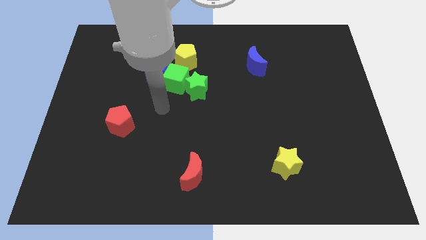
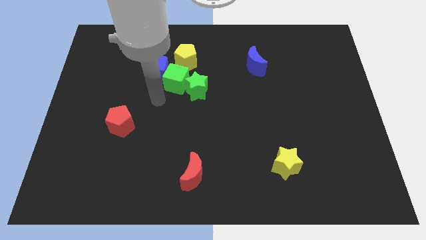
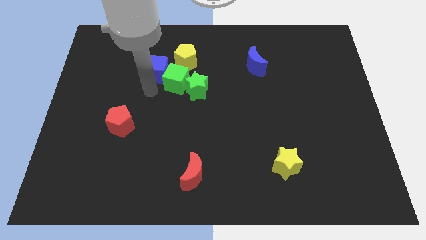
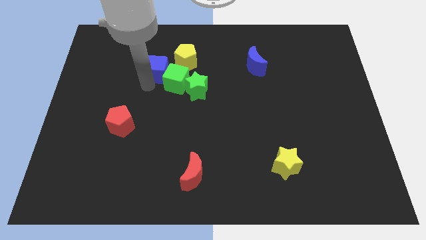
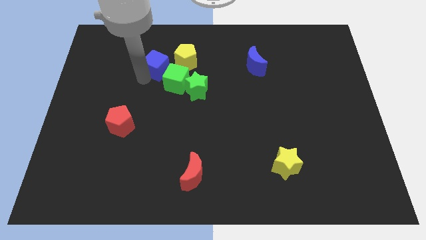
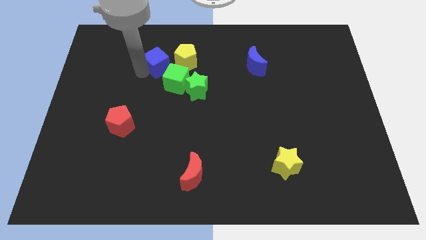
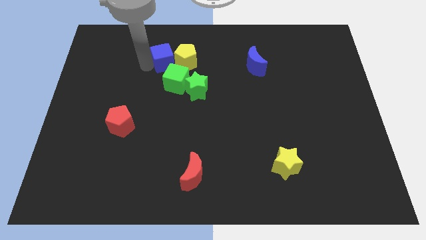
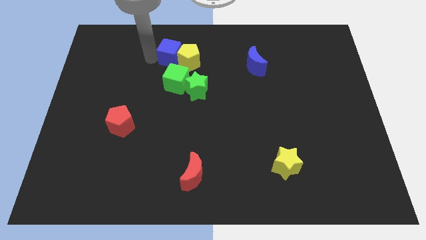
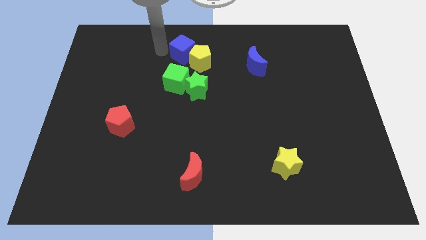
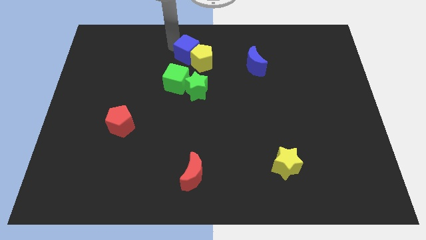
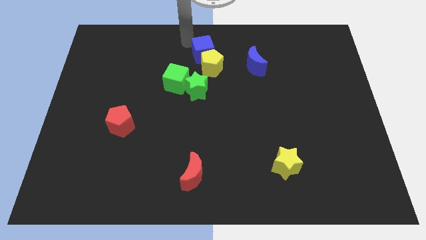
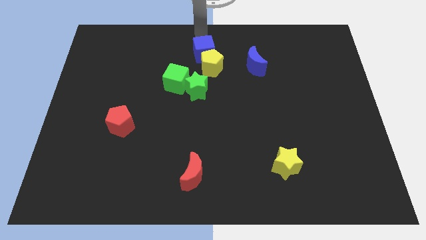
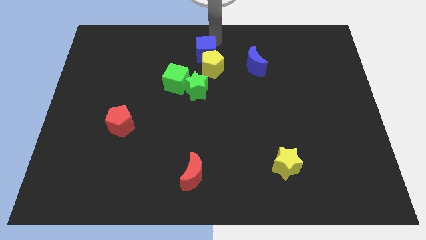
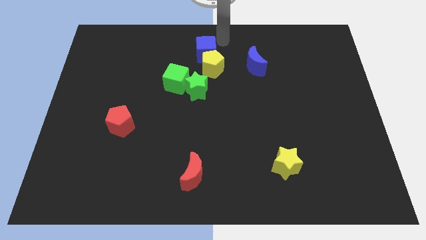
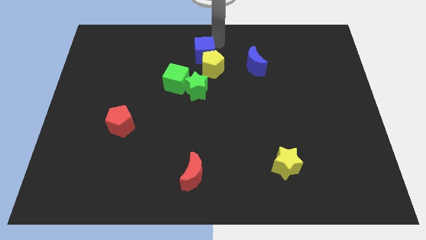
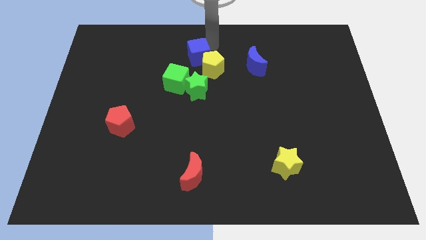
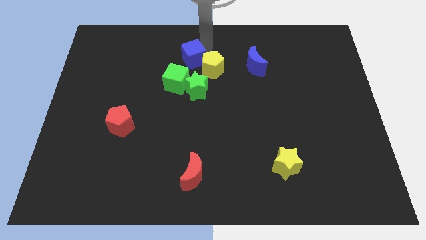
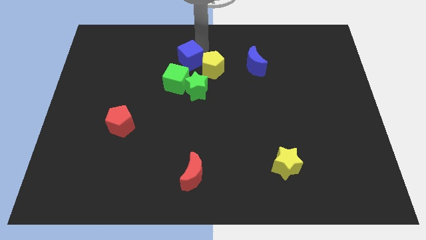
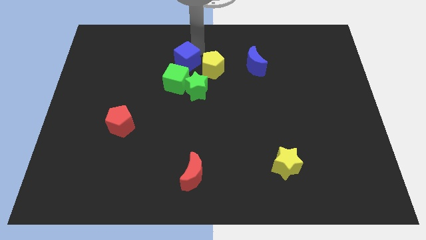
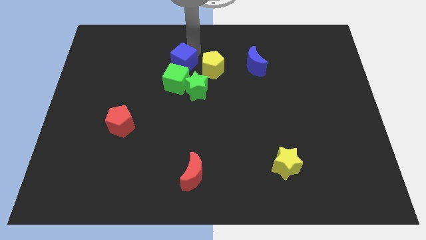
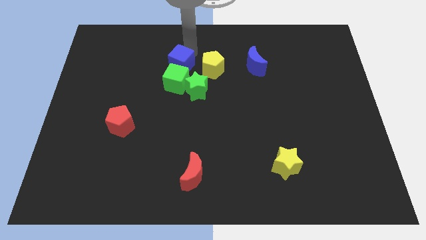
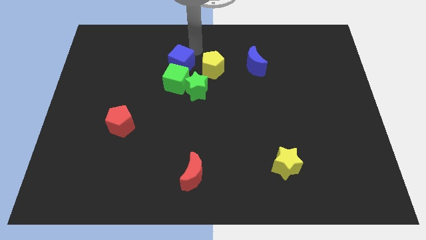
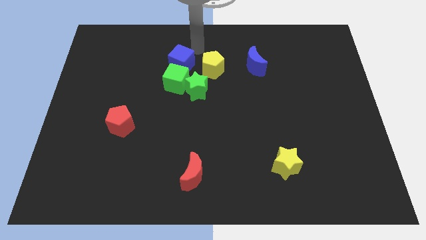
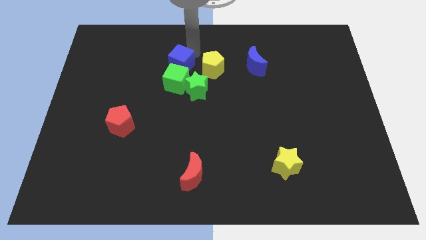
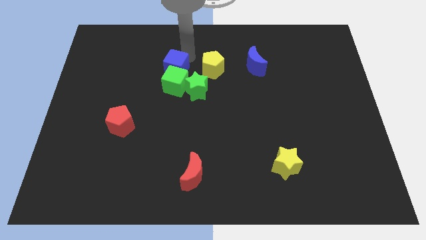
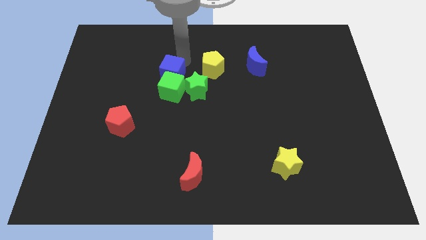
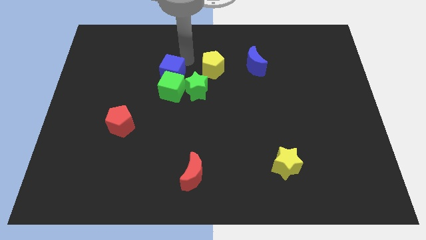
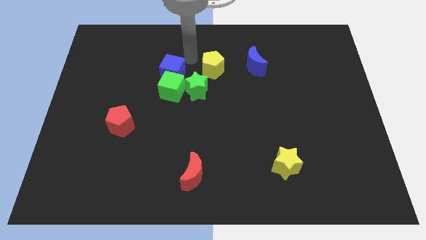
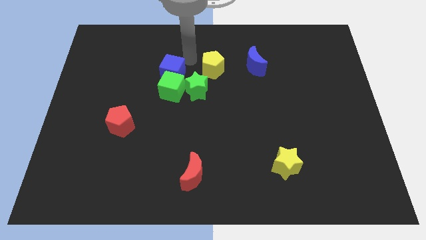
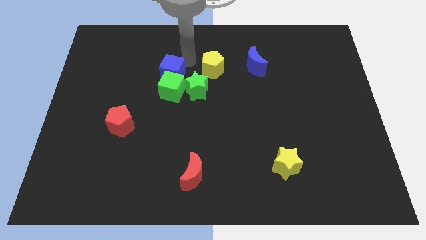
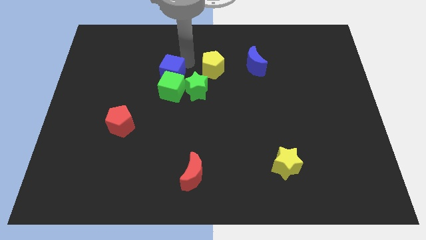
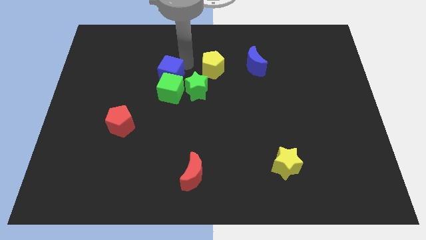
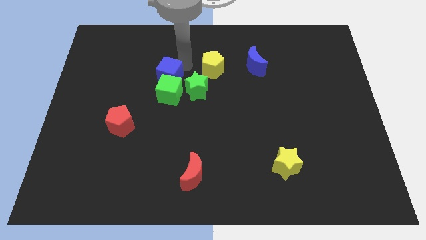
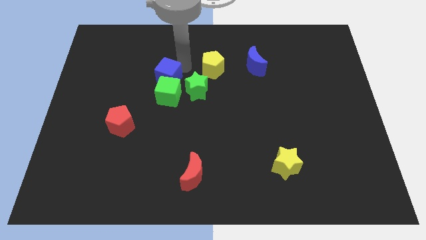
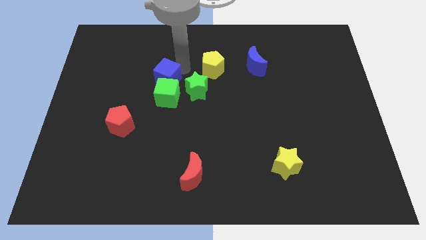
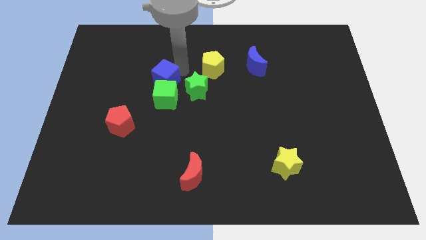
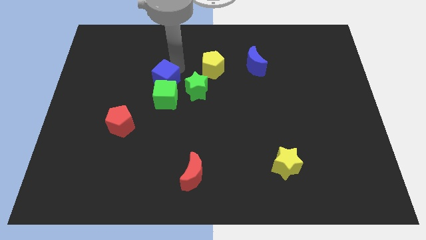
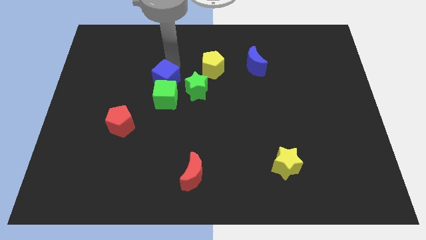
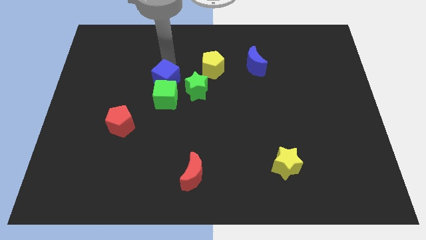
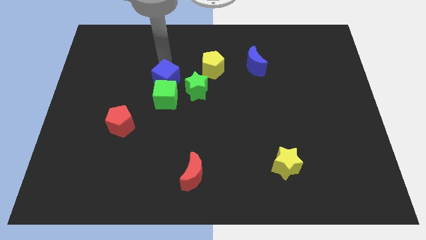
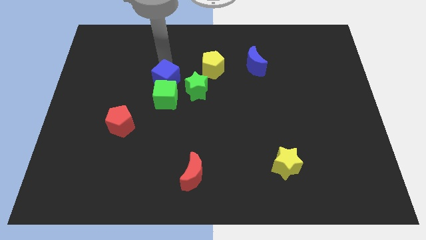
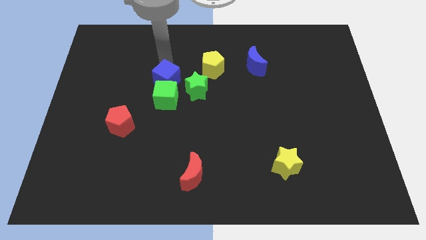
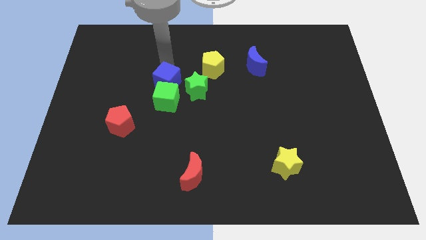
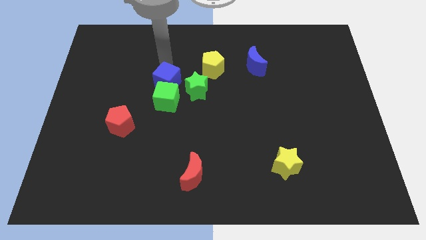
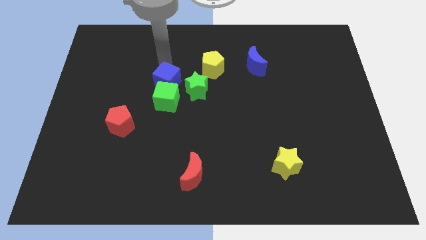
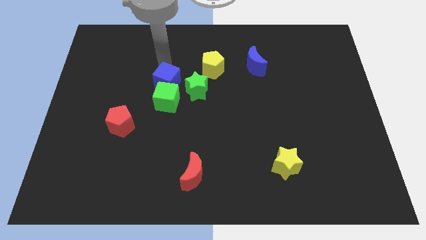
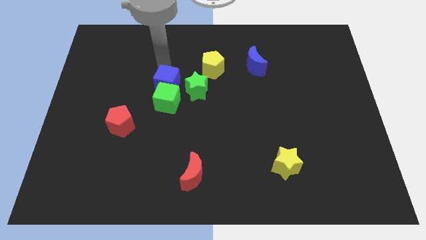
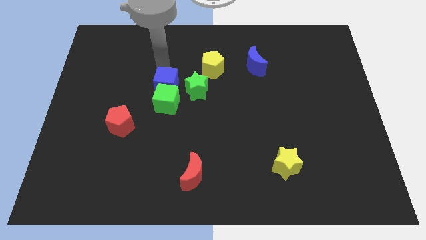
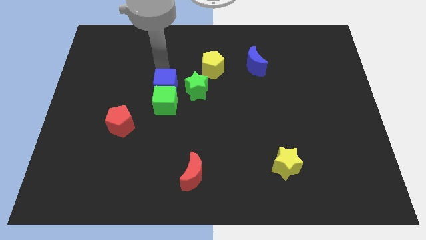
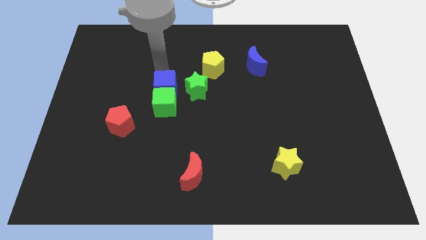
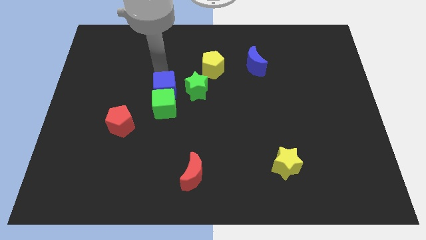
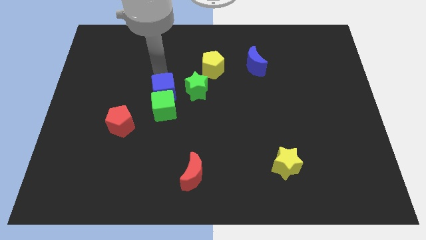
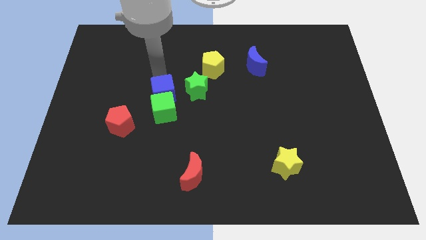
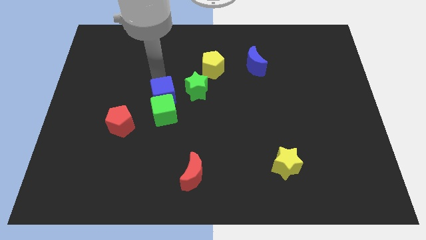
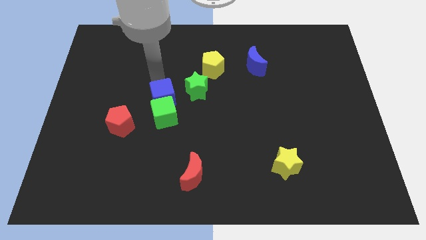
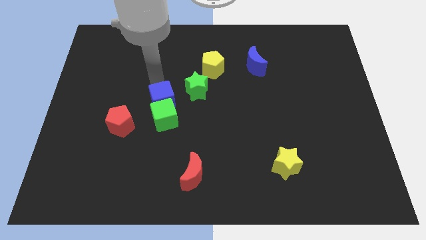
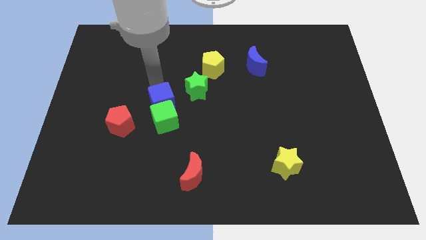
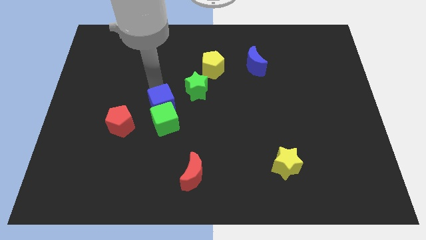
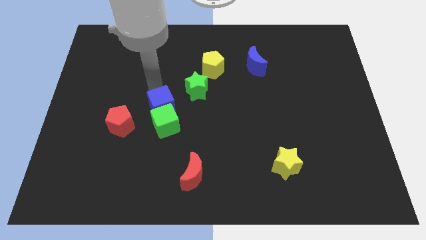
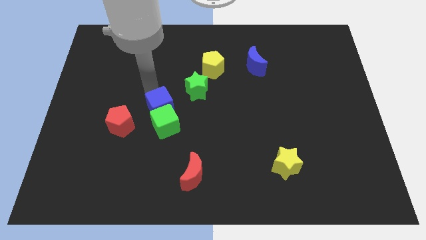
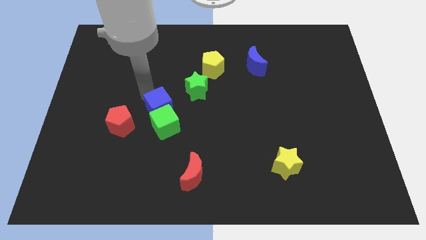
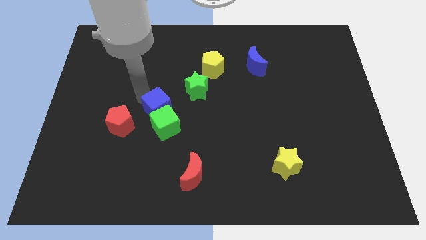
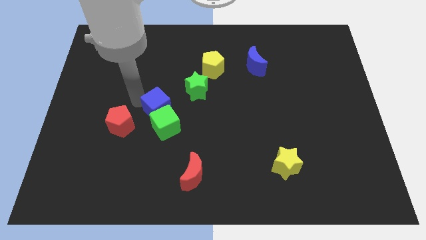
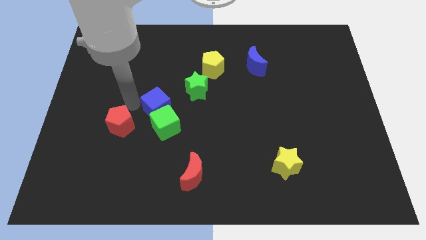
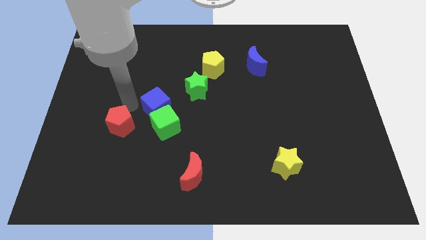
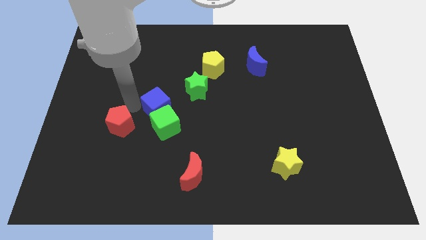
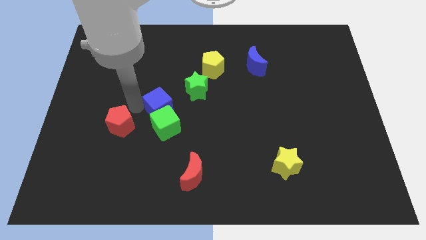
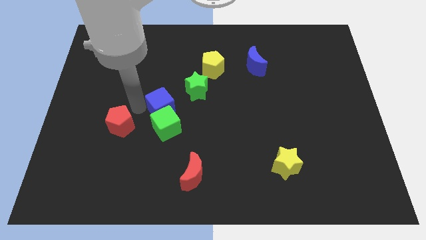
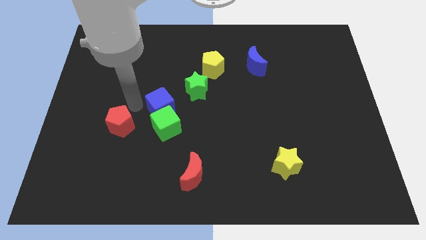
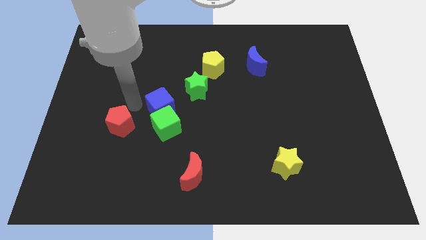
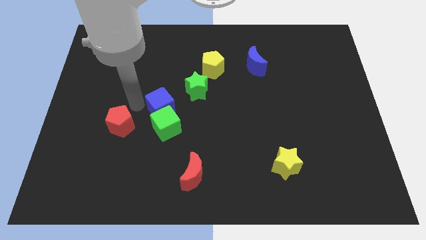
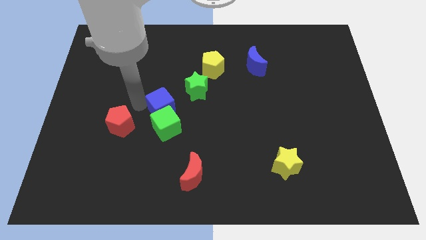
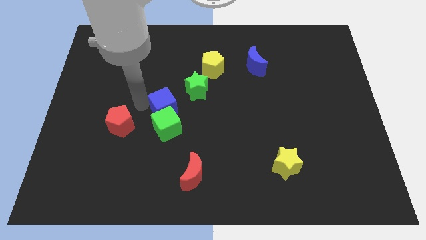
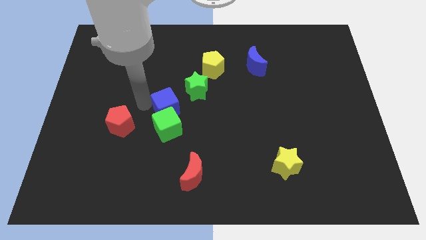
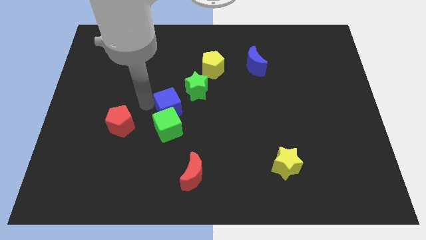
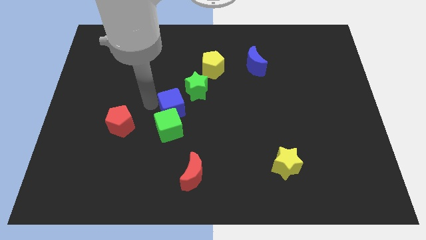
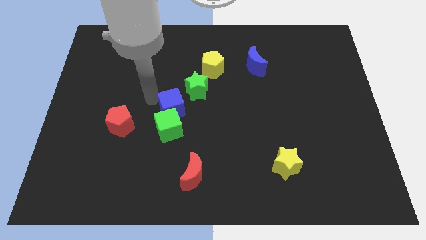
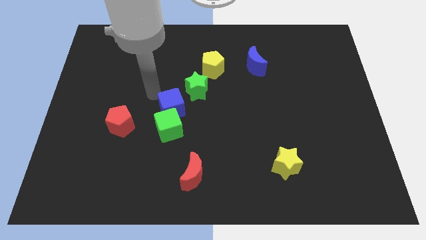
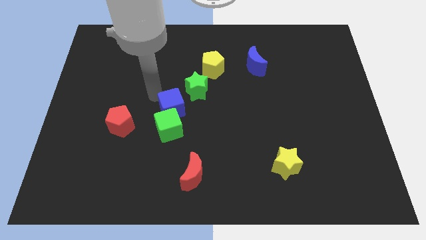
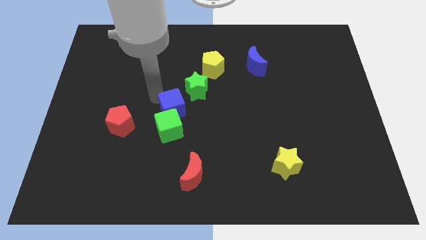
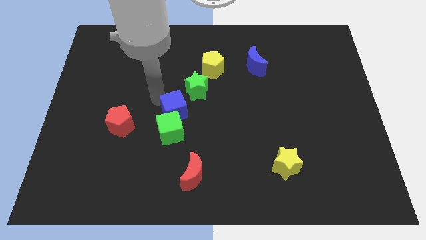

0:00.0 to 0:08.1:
slide the blue cube to the bottom of the green star

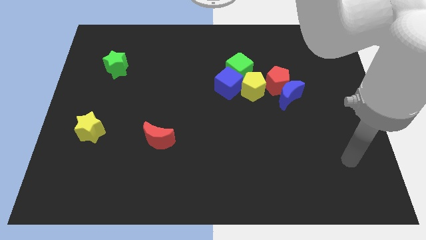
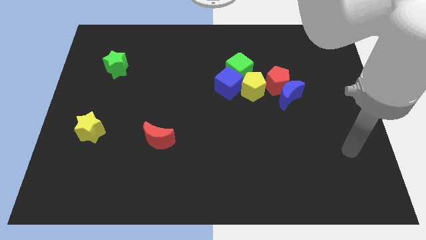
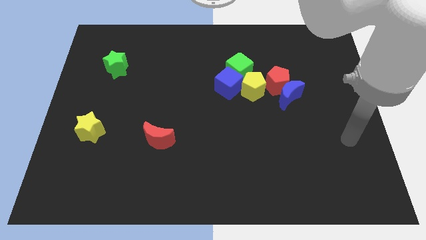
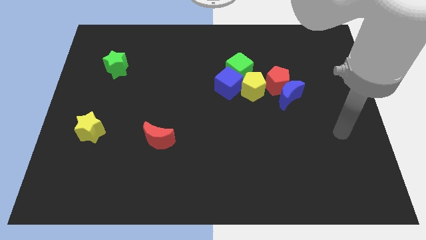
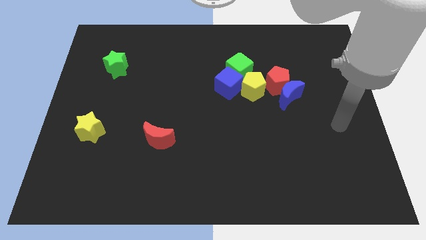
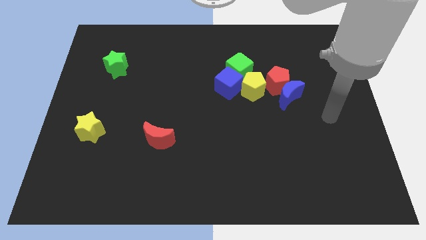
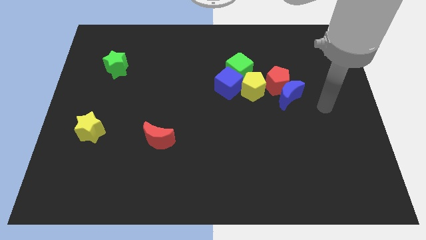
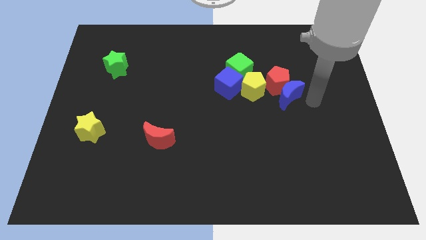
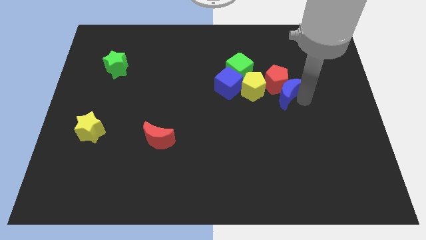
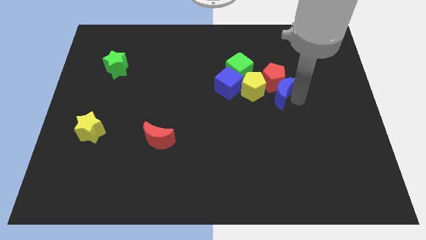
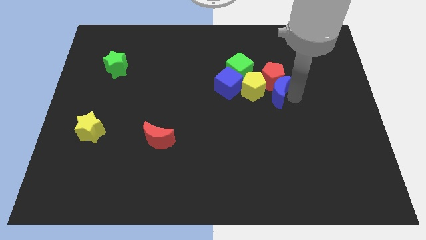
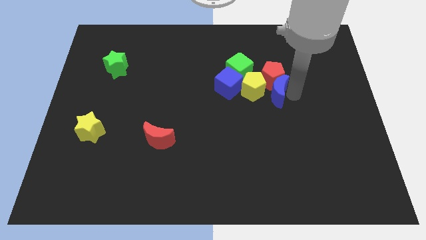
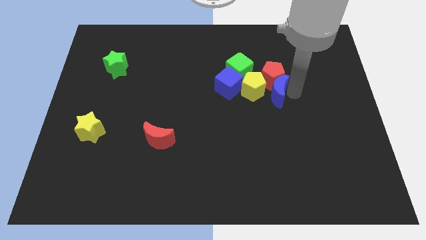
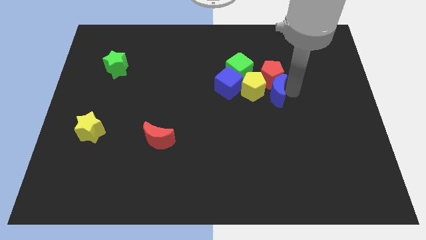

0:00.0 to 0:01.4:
slide the red pentagon above the yellow pentagon
